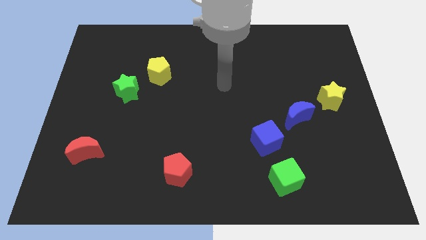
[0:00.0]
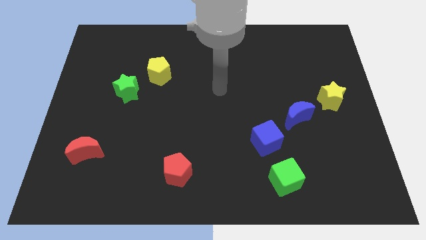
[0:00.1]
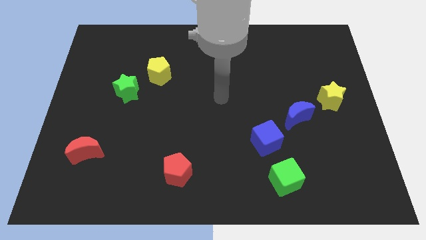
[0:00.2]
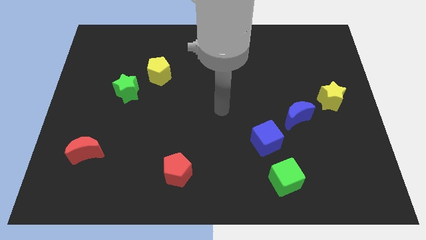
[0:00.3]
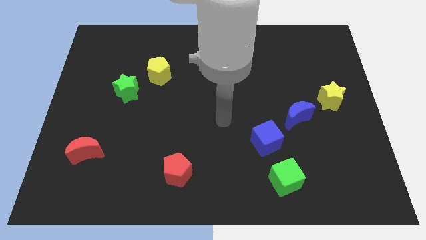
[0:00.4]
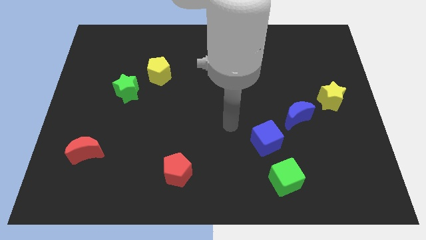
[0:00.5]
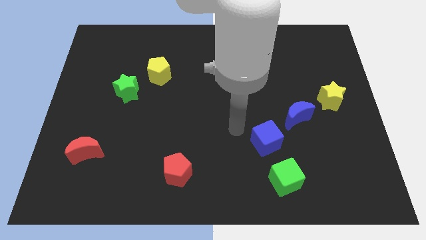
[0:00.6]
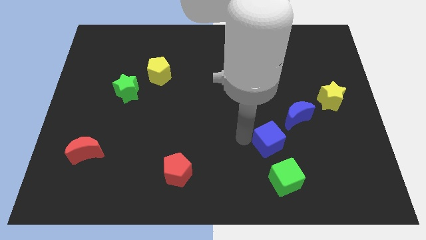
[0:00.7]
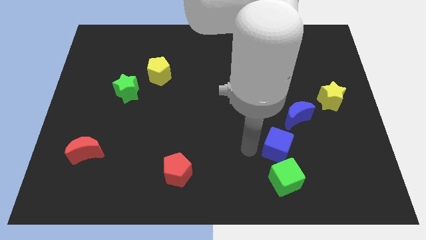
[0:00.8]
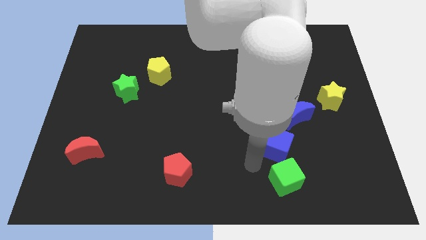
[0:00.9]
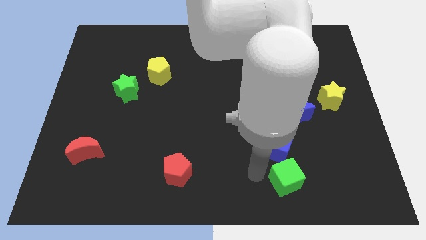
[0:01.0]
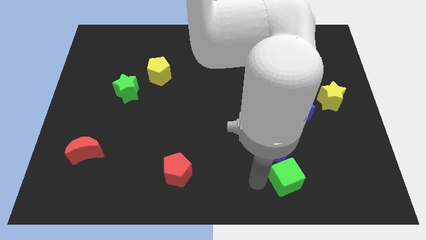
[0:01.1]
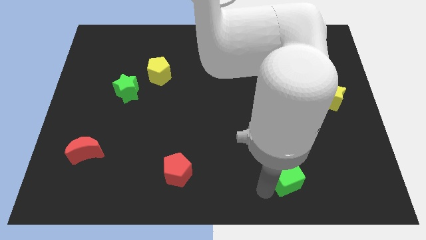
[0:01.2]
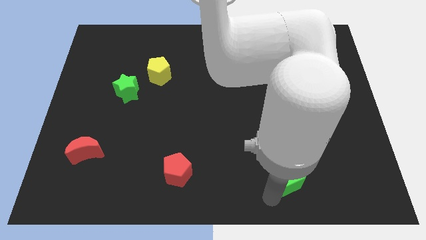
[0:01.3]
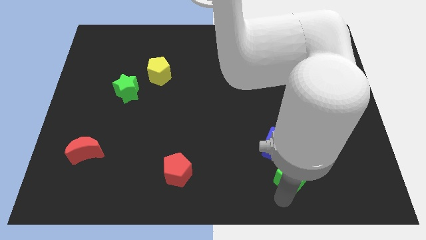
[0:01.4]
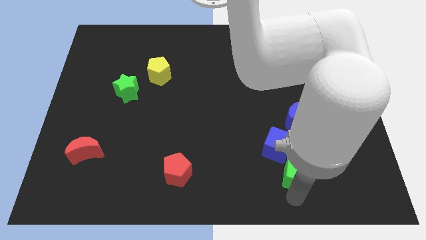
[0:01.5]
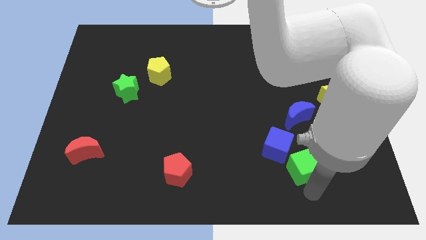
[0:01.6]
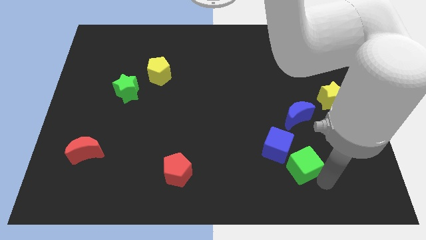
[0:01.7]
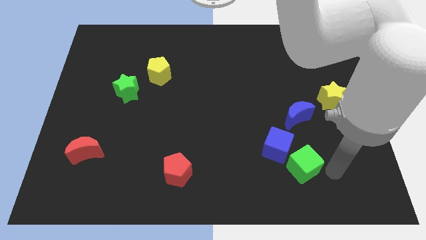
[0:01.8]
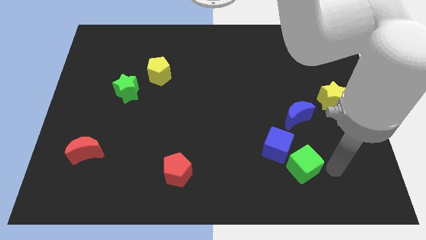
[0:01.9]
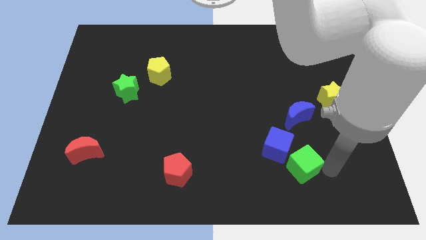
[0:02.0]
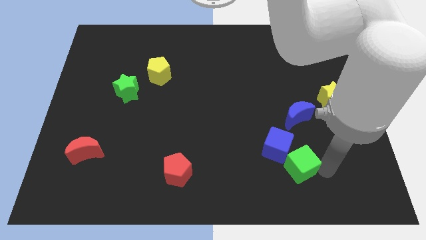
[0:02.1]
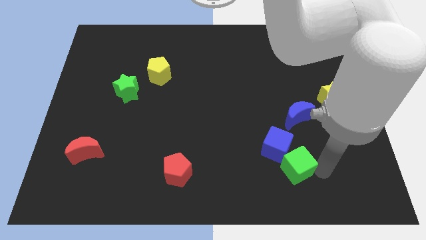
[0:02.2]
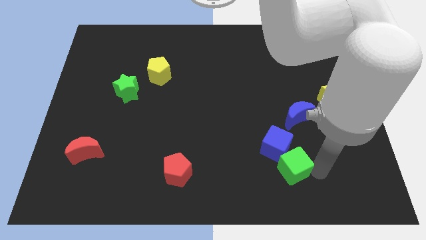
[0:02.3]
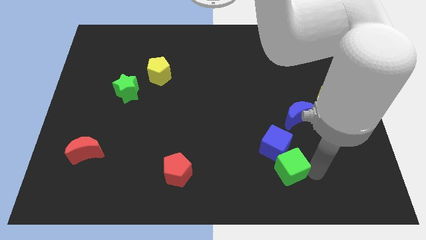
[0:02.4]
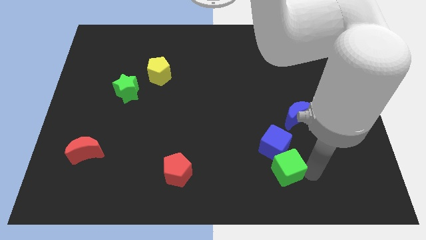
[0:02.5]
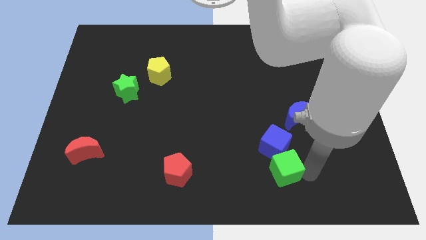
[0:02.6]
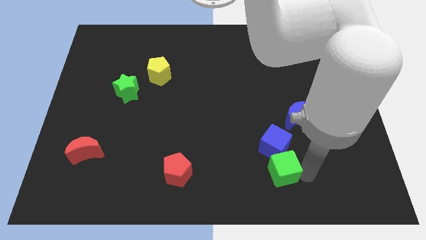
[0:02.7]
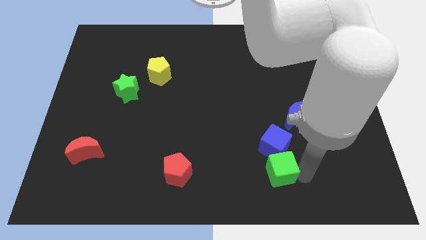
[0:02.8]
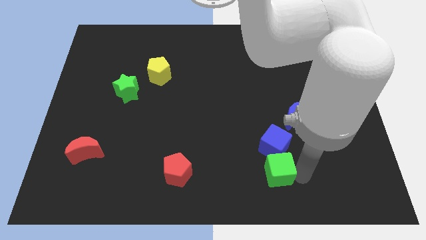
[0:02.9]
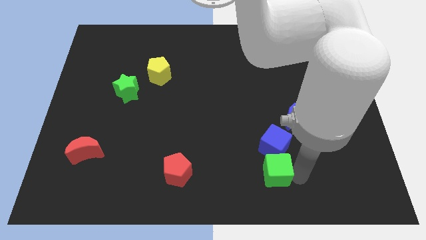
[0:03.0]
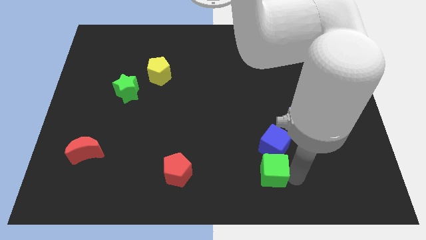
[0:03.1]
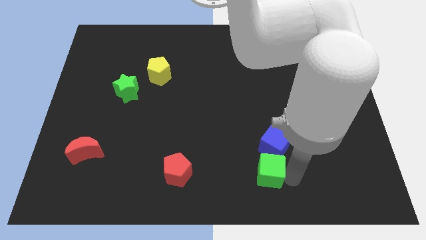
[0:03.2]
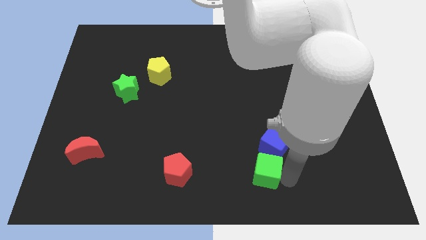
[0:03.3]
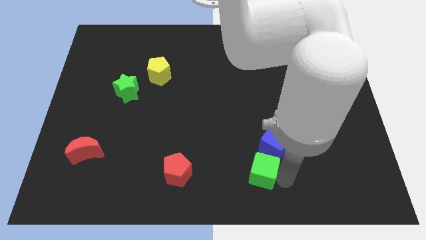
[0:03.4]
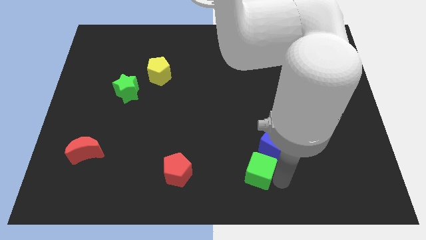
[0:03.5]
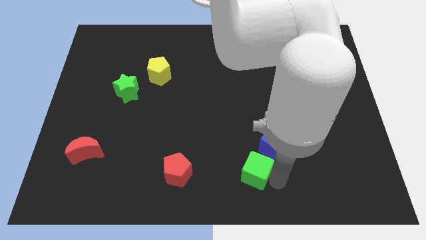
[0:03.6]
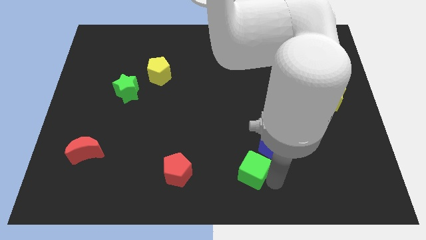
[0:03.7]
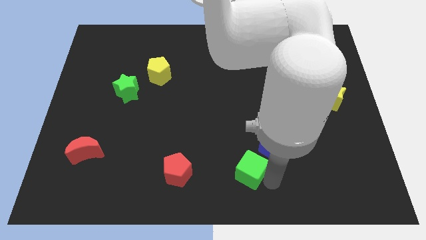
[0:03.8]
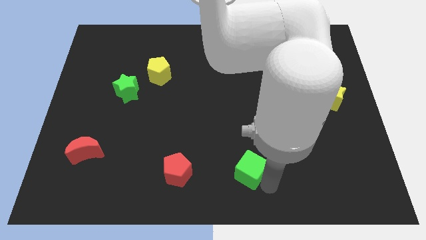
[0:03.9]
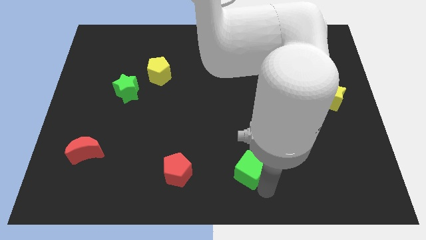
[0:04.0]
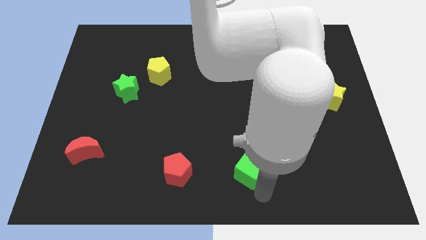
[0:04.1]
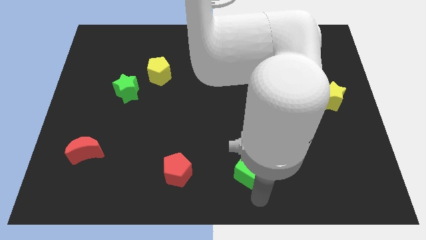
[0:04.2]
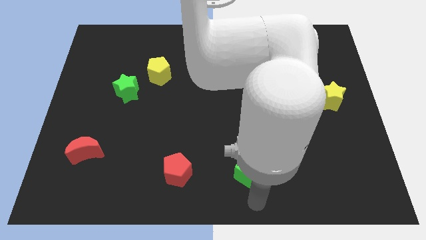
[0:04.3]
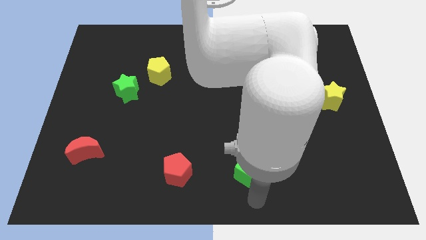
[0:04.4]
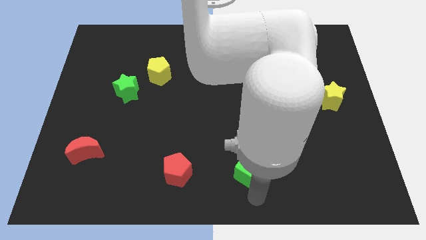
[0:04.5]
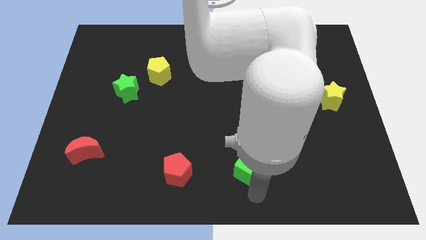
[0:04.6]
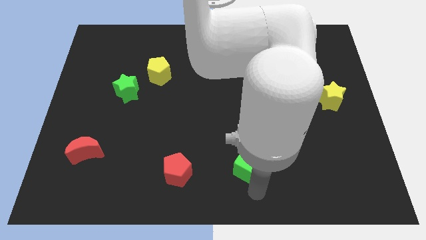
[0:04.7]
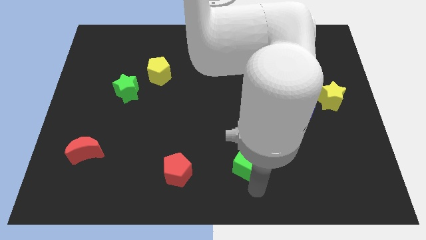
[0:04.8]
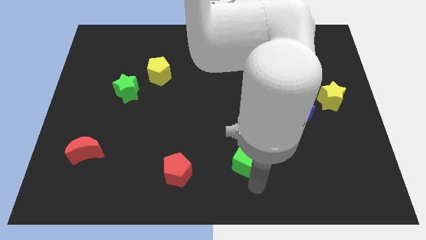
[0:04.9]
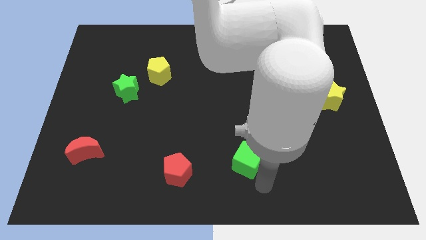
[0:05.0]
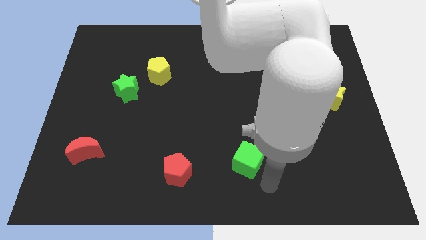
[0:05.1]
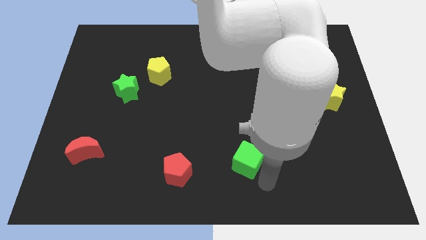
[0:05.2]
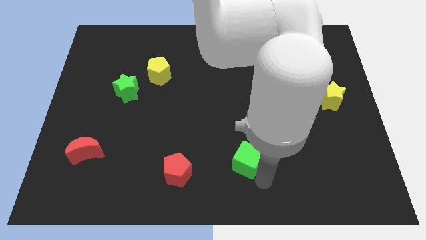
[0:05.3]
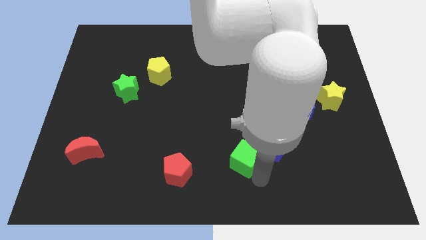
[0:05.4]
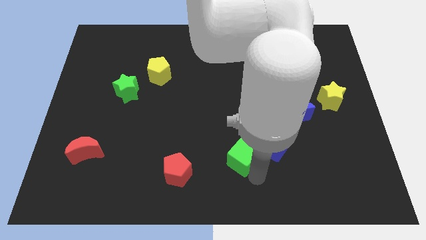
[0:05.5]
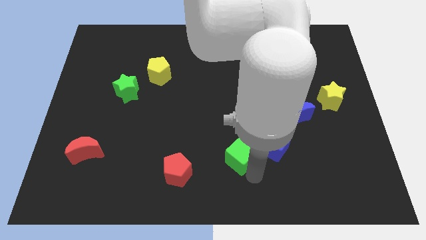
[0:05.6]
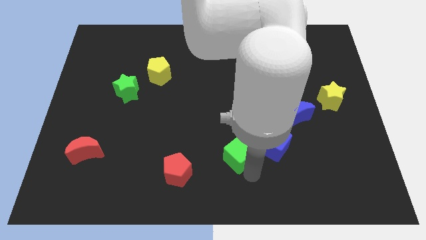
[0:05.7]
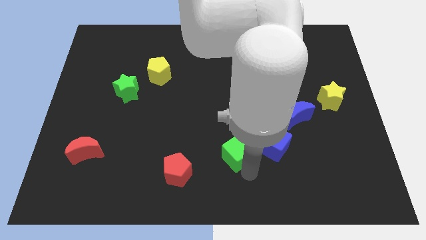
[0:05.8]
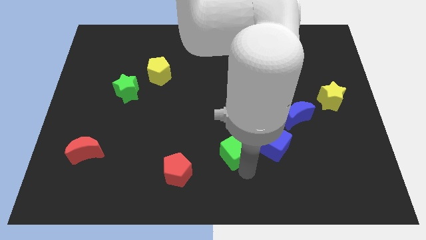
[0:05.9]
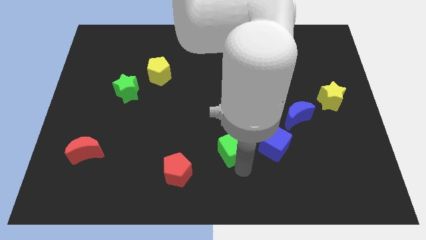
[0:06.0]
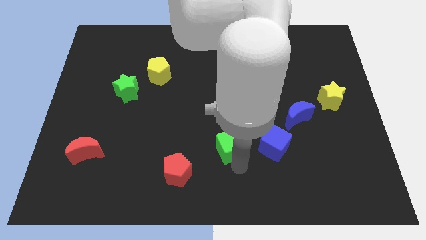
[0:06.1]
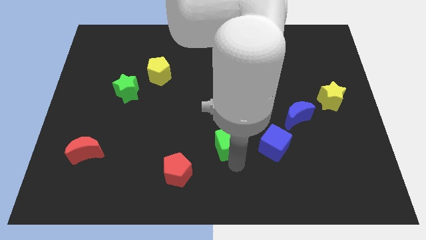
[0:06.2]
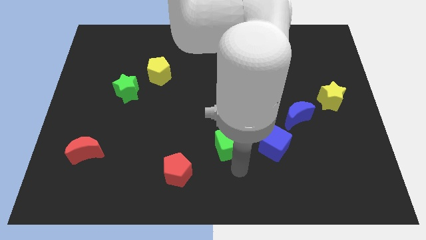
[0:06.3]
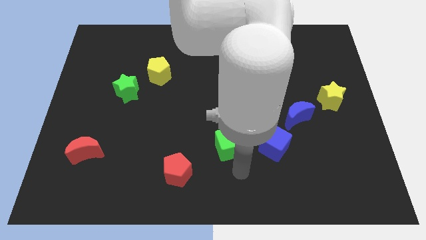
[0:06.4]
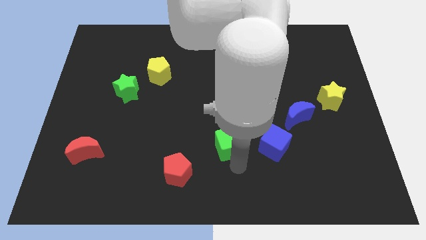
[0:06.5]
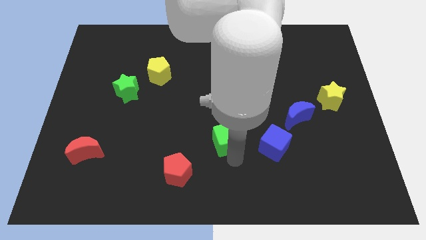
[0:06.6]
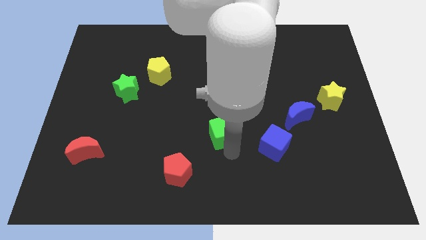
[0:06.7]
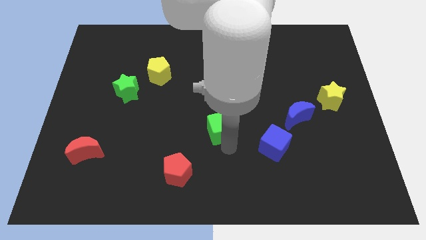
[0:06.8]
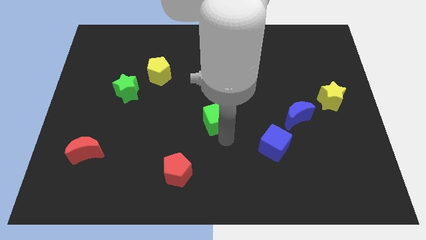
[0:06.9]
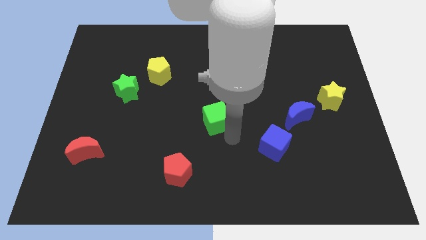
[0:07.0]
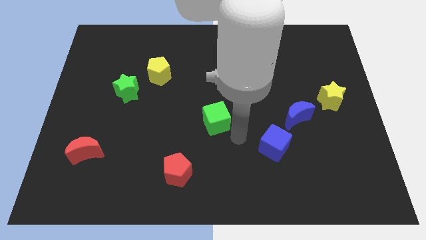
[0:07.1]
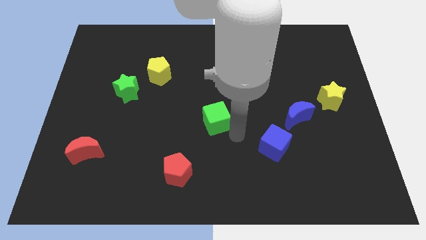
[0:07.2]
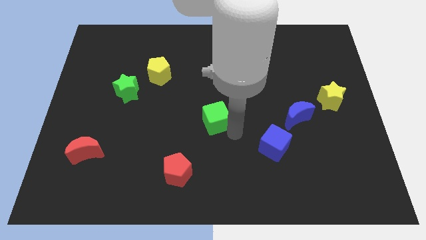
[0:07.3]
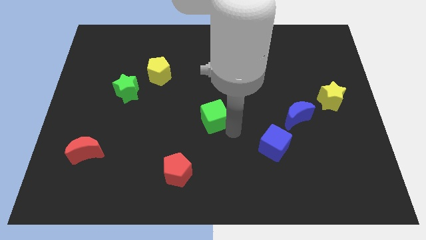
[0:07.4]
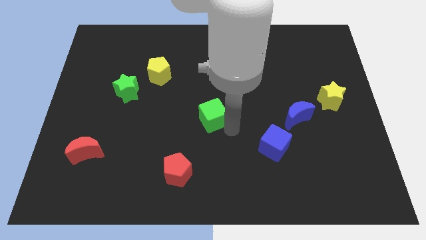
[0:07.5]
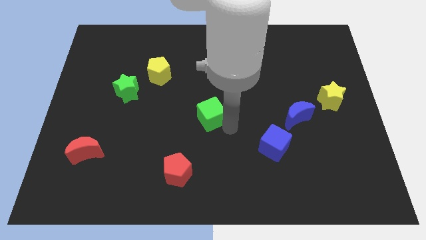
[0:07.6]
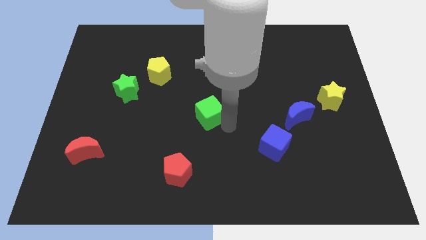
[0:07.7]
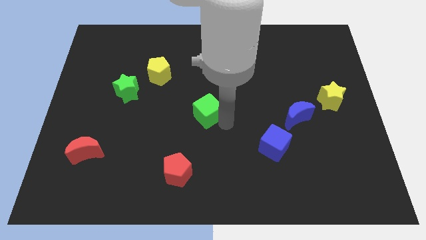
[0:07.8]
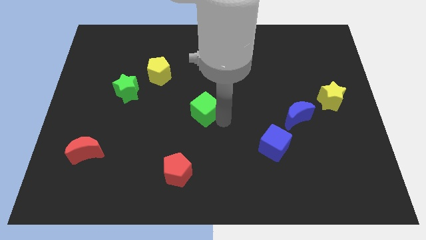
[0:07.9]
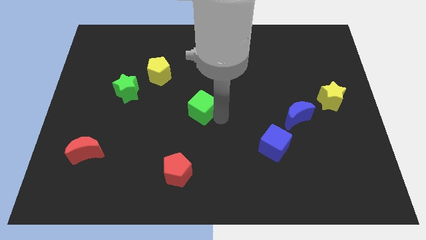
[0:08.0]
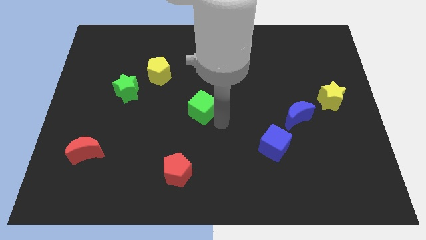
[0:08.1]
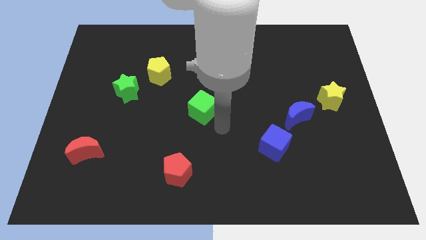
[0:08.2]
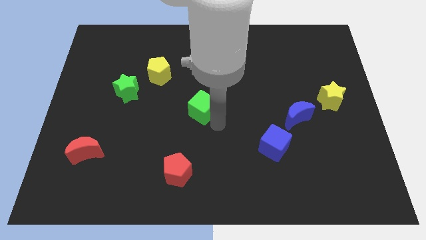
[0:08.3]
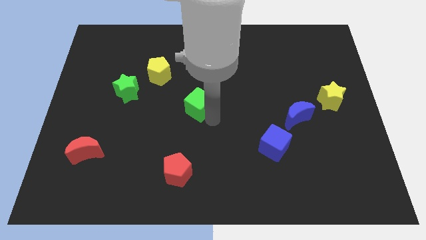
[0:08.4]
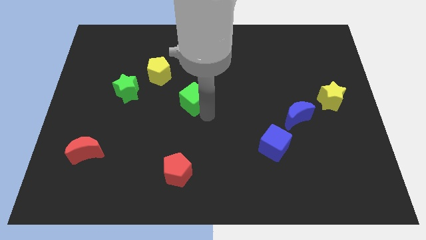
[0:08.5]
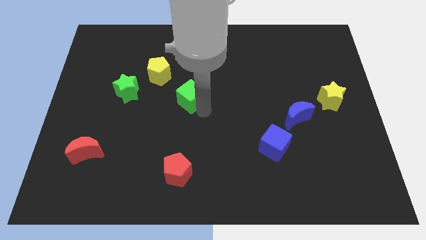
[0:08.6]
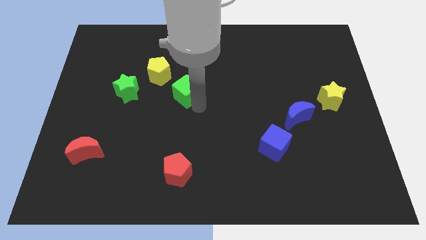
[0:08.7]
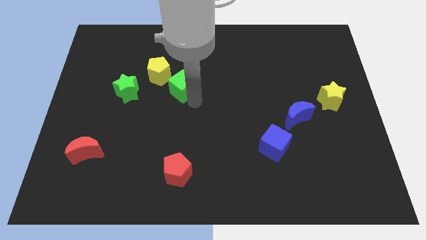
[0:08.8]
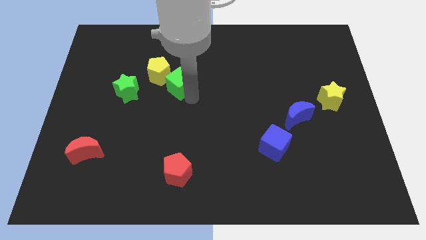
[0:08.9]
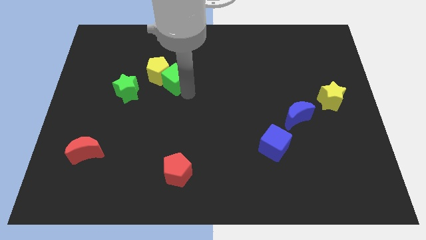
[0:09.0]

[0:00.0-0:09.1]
put the green cube towards the yellow pentagon
